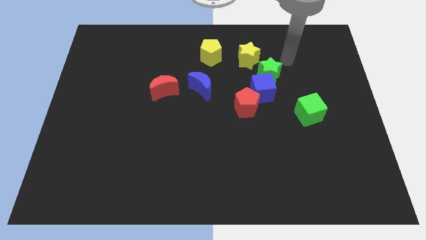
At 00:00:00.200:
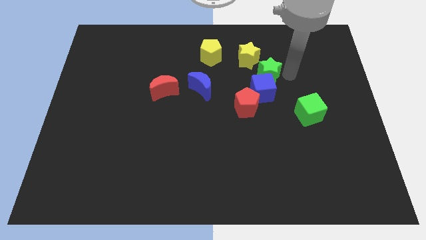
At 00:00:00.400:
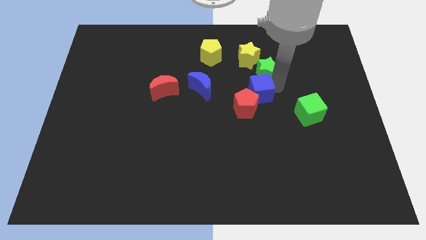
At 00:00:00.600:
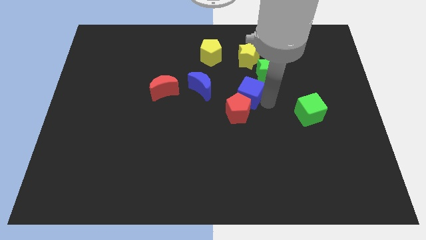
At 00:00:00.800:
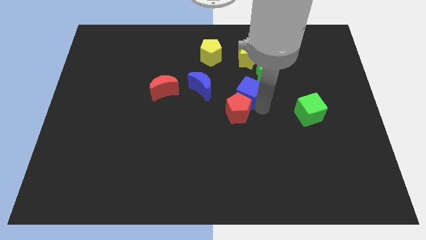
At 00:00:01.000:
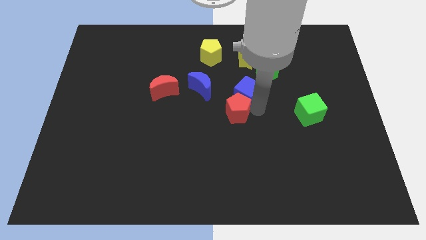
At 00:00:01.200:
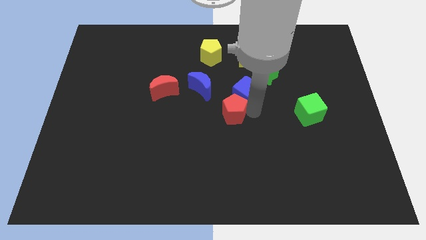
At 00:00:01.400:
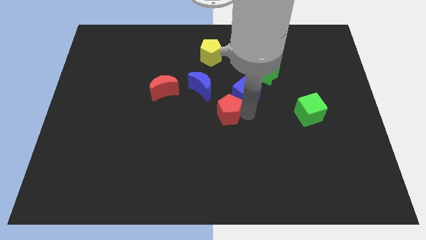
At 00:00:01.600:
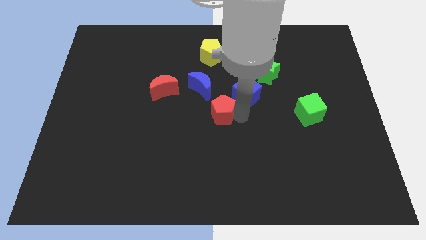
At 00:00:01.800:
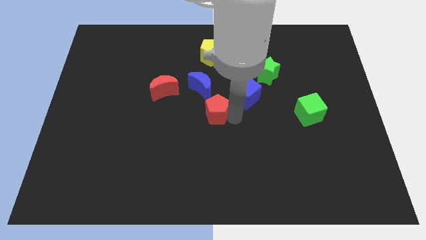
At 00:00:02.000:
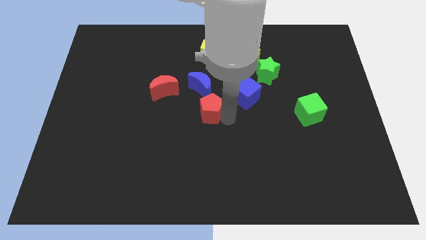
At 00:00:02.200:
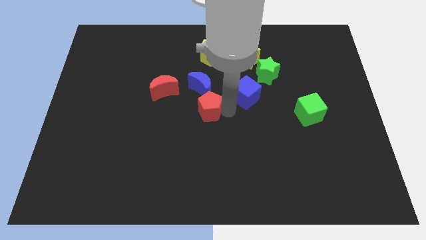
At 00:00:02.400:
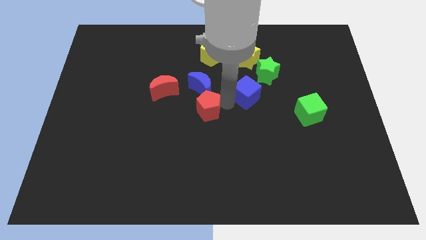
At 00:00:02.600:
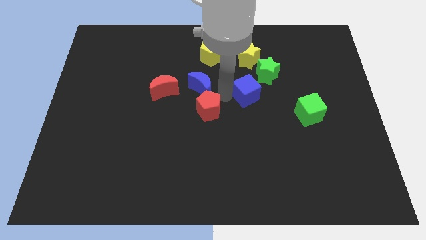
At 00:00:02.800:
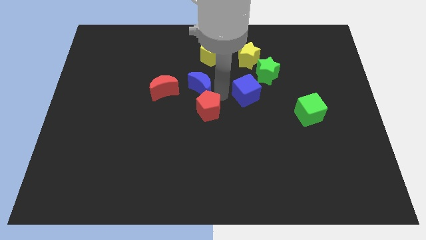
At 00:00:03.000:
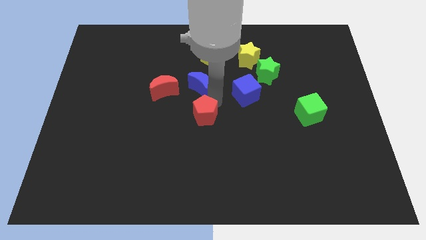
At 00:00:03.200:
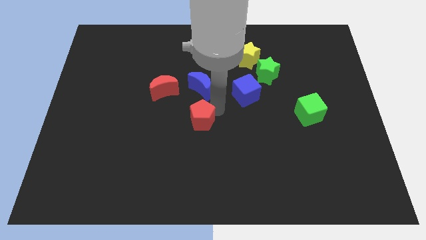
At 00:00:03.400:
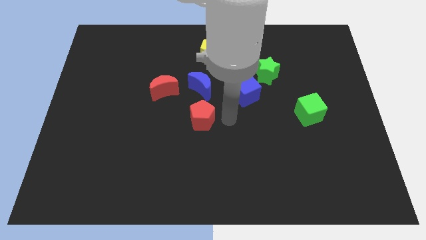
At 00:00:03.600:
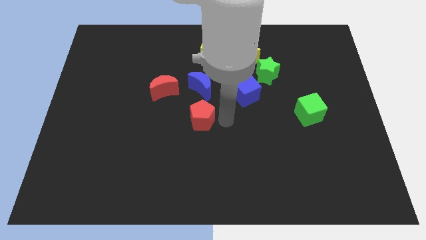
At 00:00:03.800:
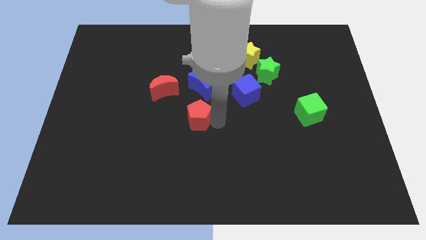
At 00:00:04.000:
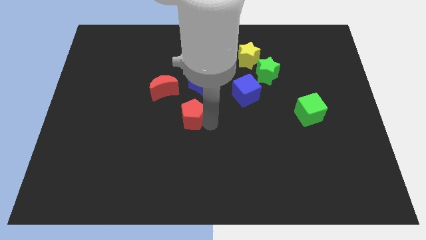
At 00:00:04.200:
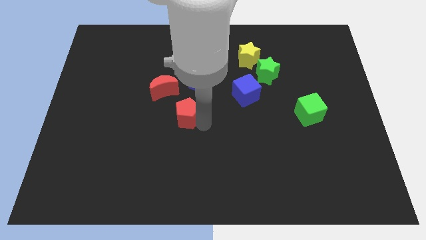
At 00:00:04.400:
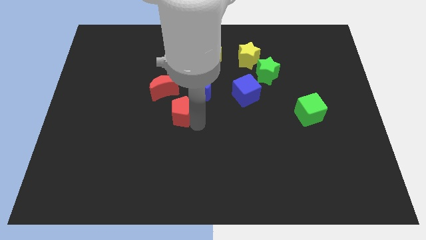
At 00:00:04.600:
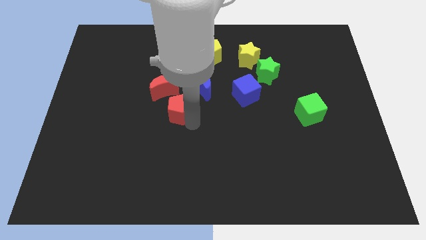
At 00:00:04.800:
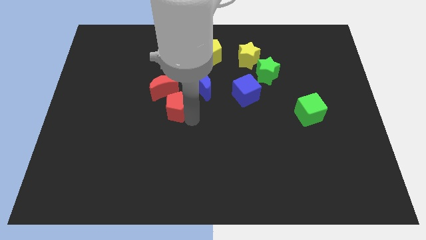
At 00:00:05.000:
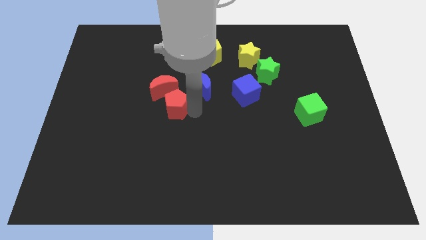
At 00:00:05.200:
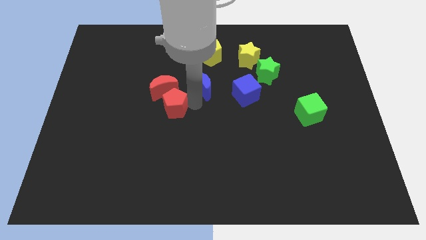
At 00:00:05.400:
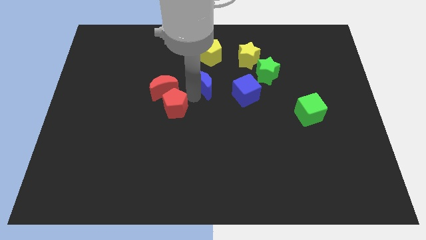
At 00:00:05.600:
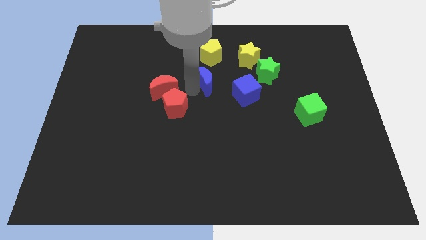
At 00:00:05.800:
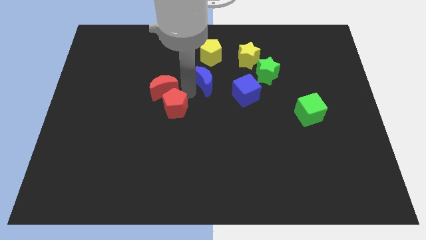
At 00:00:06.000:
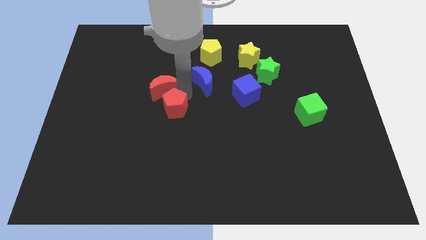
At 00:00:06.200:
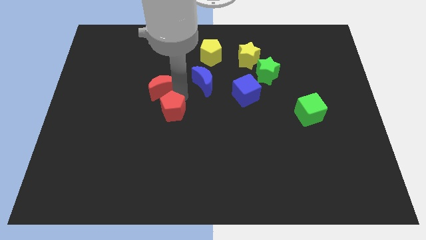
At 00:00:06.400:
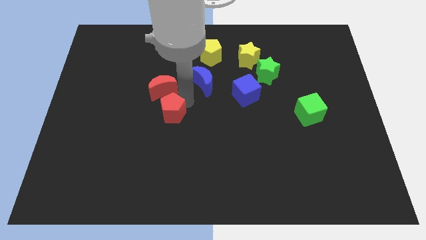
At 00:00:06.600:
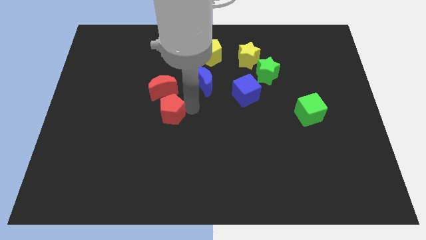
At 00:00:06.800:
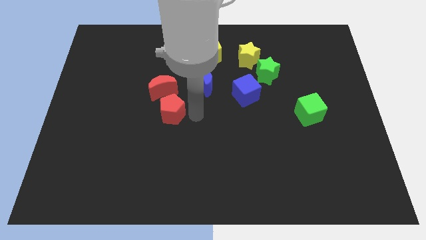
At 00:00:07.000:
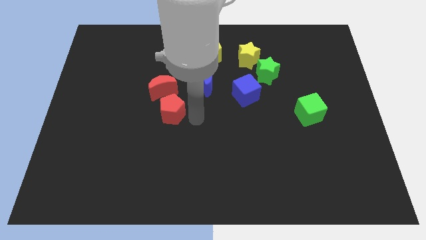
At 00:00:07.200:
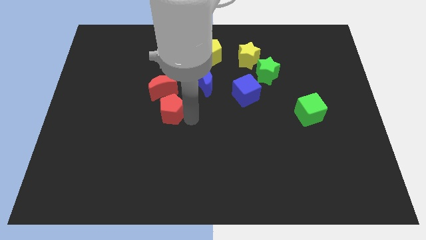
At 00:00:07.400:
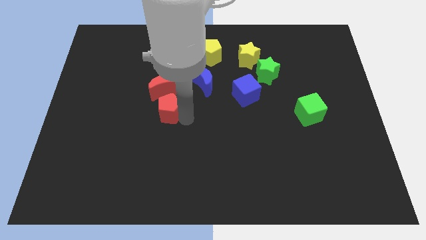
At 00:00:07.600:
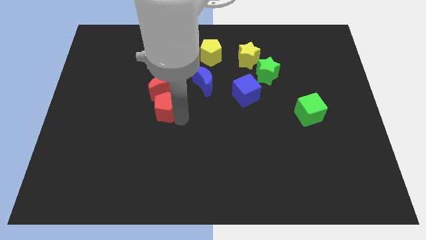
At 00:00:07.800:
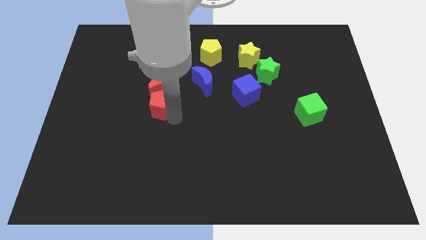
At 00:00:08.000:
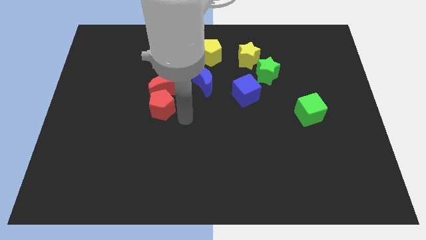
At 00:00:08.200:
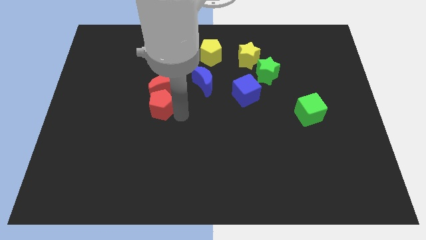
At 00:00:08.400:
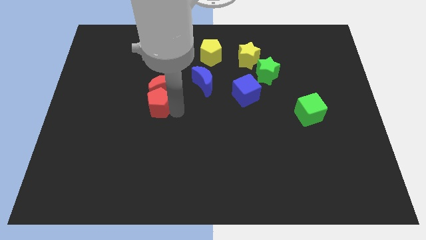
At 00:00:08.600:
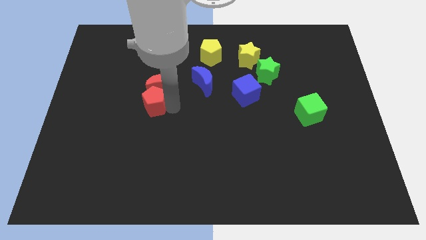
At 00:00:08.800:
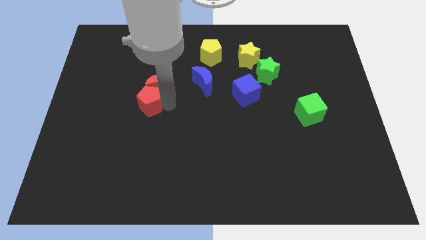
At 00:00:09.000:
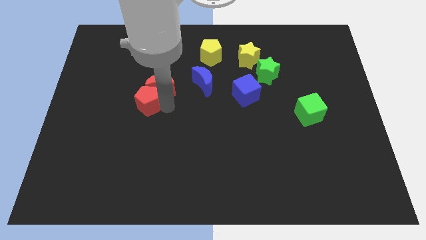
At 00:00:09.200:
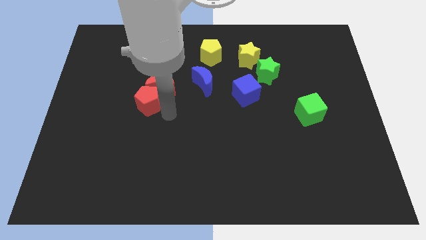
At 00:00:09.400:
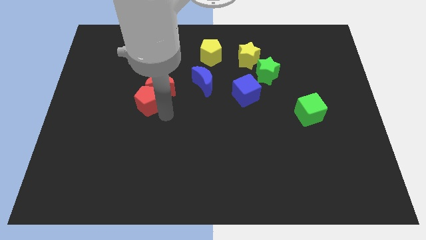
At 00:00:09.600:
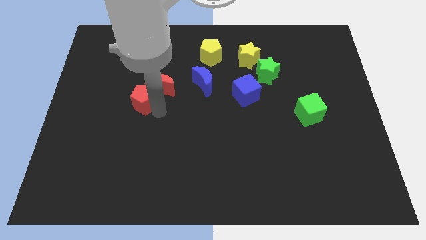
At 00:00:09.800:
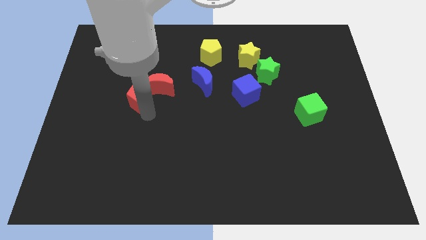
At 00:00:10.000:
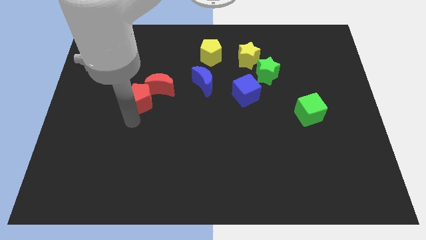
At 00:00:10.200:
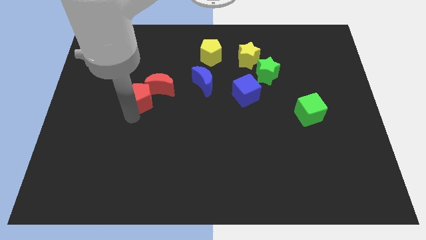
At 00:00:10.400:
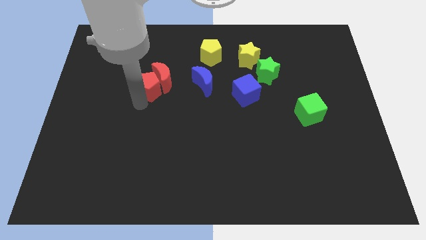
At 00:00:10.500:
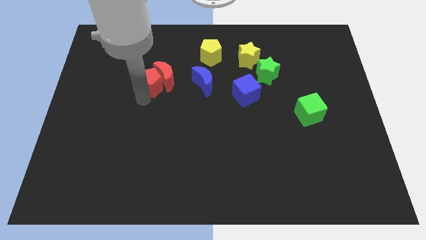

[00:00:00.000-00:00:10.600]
push the red pentagon somewhat up and left diagonally

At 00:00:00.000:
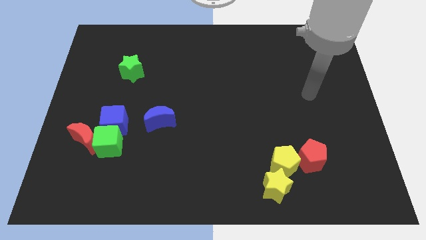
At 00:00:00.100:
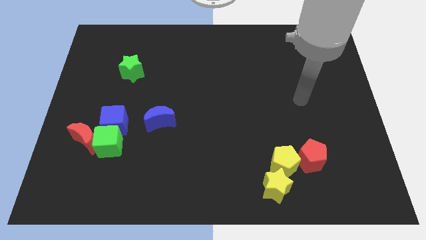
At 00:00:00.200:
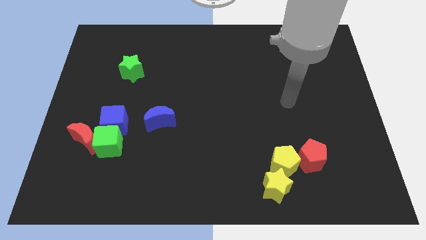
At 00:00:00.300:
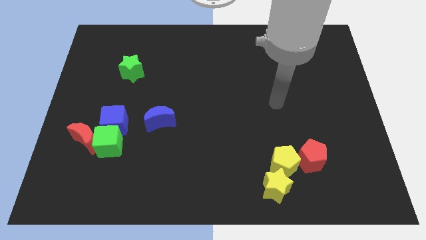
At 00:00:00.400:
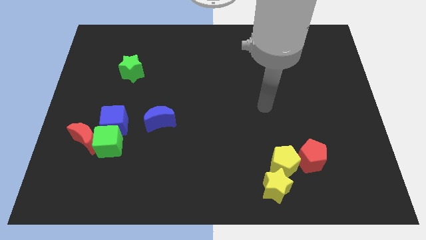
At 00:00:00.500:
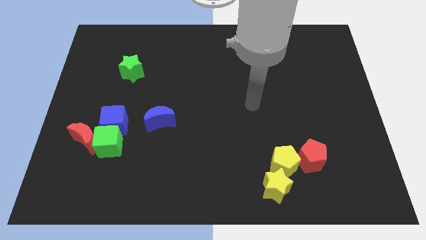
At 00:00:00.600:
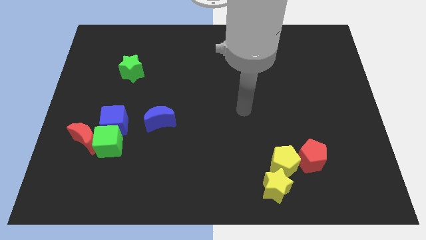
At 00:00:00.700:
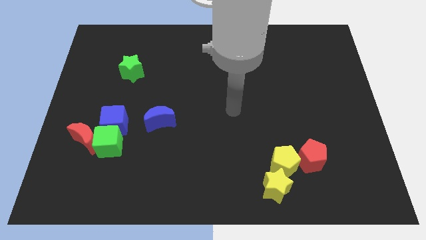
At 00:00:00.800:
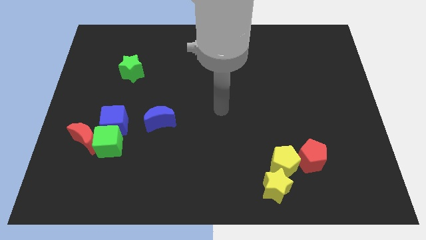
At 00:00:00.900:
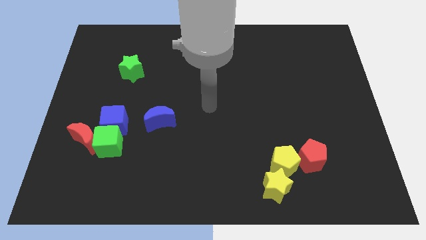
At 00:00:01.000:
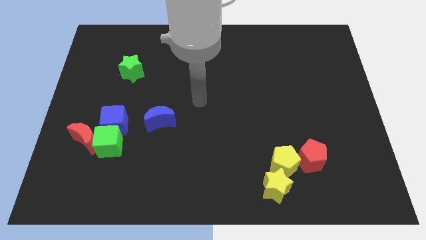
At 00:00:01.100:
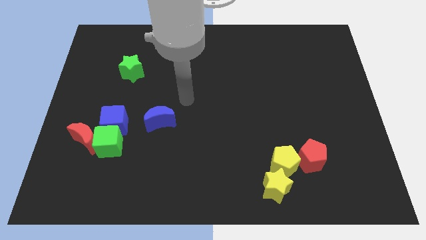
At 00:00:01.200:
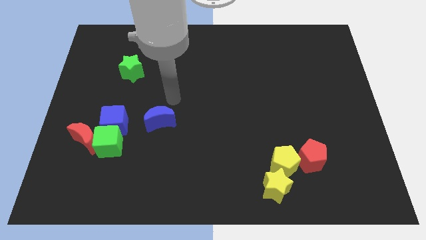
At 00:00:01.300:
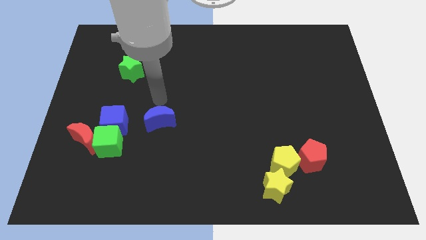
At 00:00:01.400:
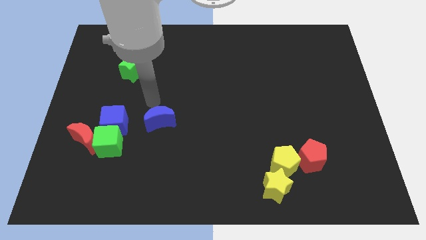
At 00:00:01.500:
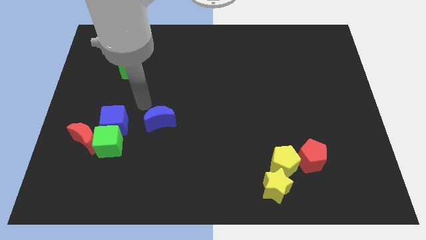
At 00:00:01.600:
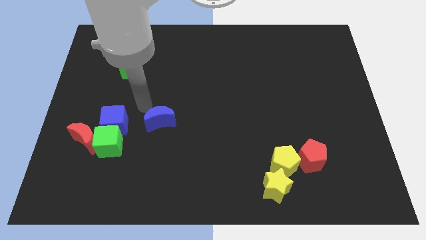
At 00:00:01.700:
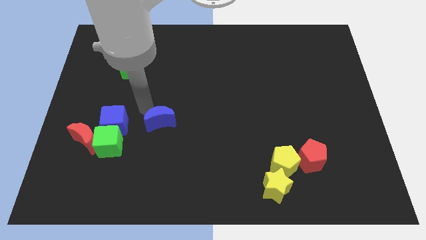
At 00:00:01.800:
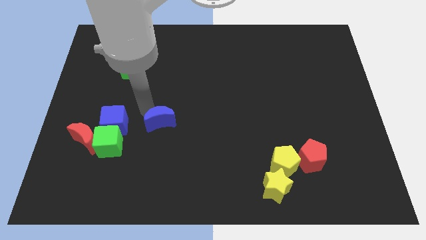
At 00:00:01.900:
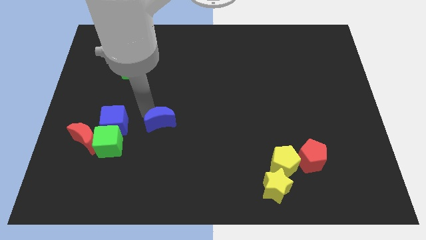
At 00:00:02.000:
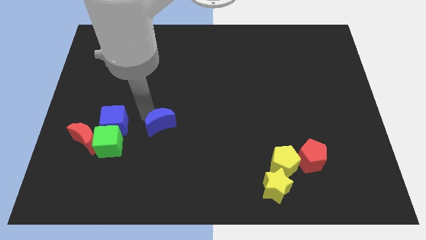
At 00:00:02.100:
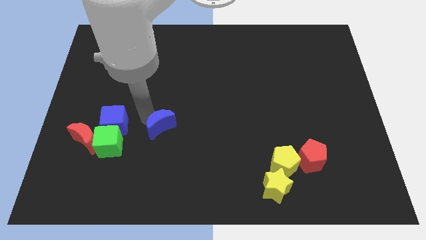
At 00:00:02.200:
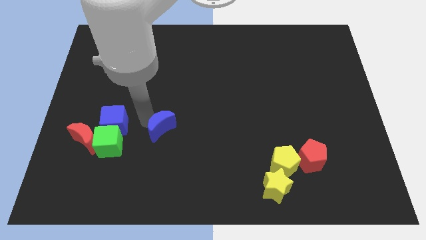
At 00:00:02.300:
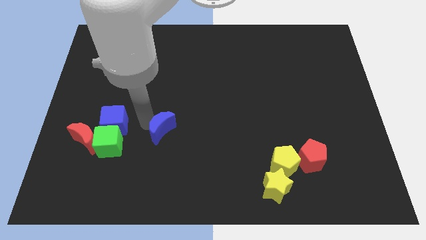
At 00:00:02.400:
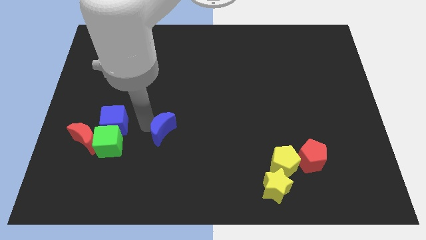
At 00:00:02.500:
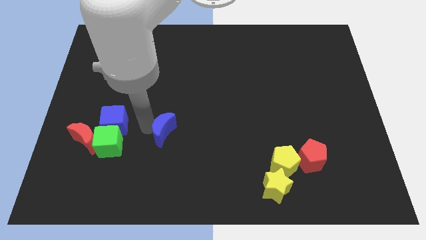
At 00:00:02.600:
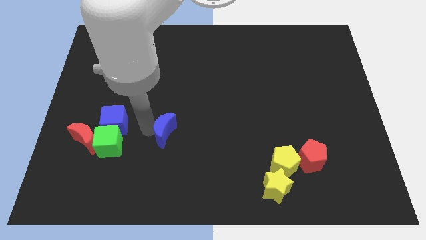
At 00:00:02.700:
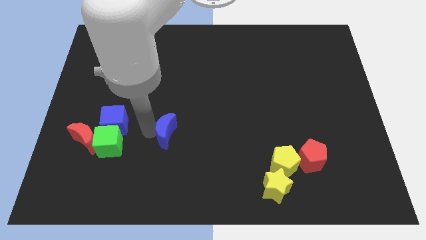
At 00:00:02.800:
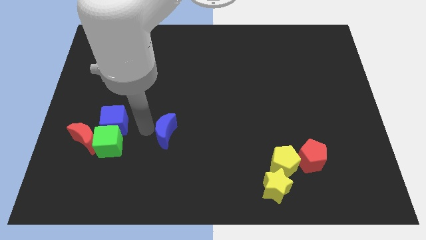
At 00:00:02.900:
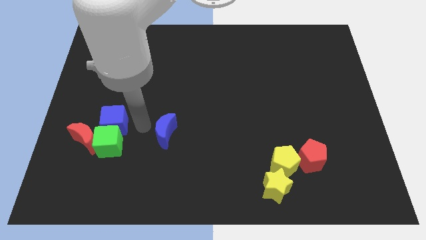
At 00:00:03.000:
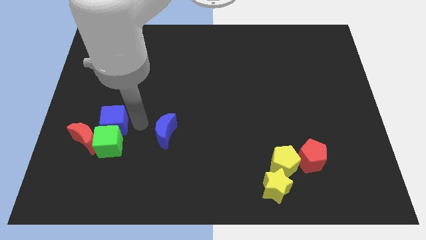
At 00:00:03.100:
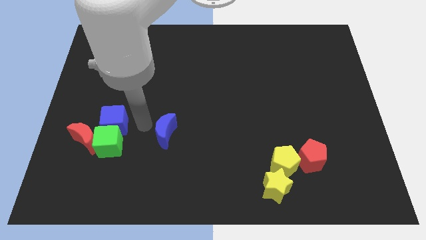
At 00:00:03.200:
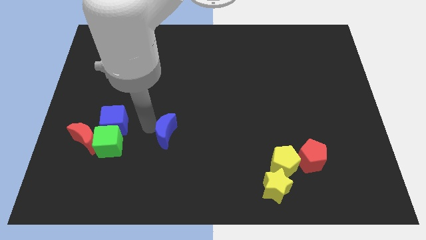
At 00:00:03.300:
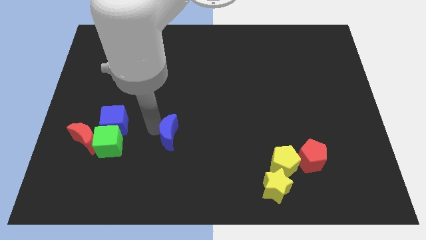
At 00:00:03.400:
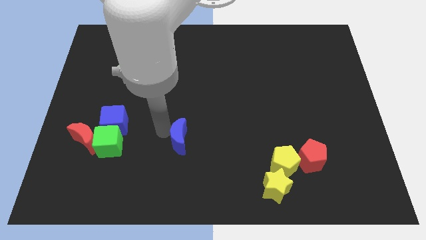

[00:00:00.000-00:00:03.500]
push the blue moon down and then right somewhat
